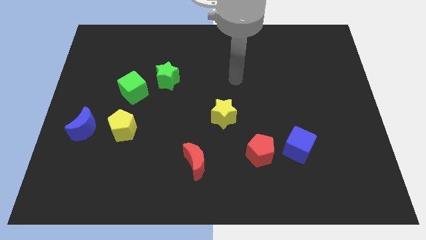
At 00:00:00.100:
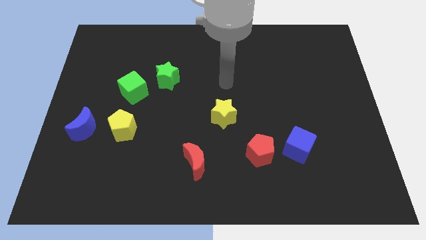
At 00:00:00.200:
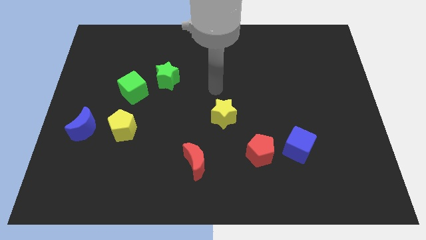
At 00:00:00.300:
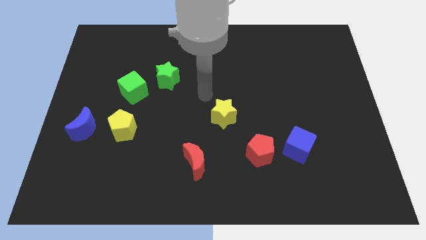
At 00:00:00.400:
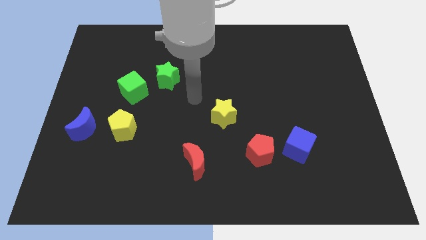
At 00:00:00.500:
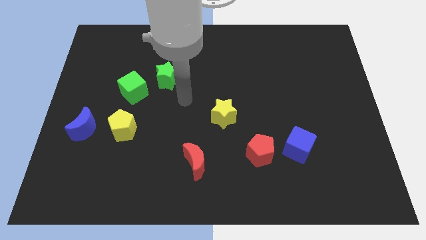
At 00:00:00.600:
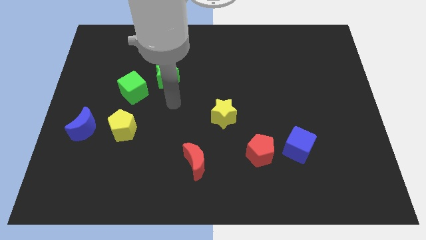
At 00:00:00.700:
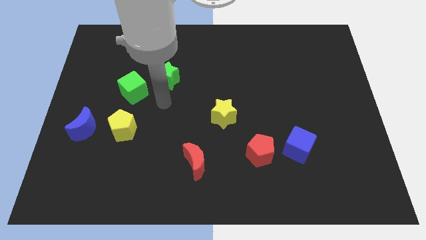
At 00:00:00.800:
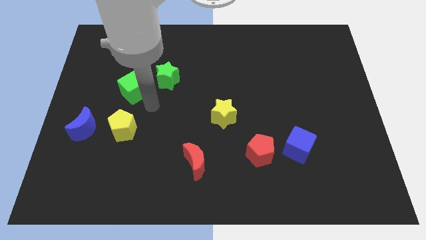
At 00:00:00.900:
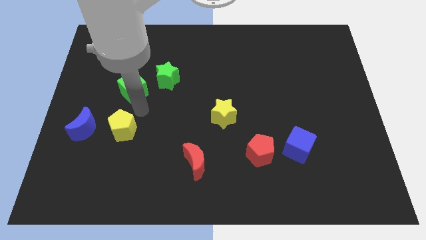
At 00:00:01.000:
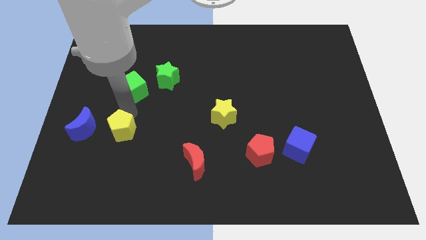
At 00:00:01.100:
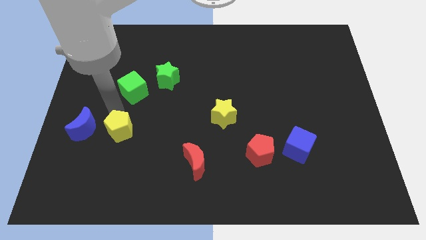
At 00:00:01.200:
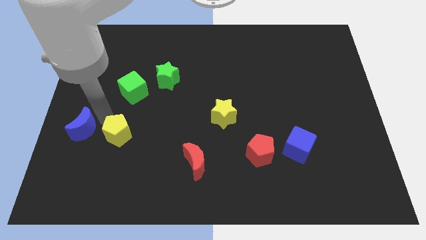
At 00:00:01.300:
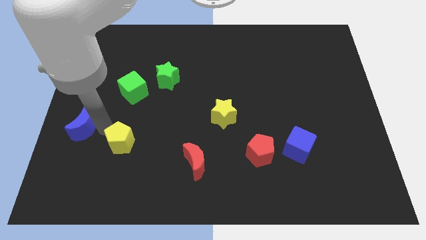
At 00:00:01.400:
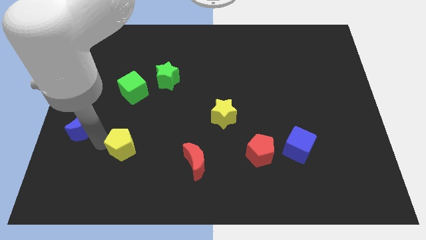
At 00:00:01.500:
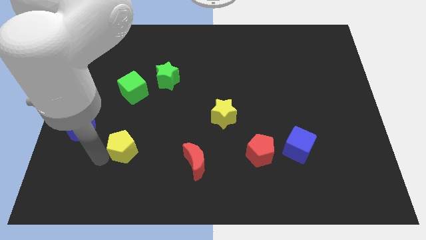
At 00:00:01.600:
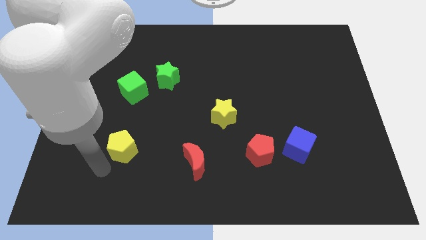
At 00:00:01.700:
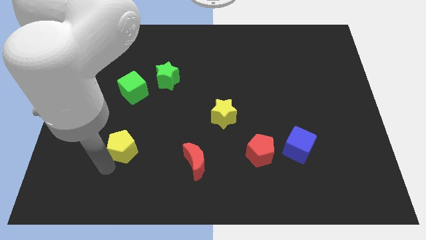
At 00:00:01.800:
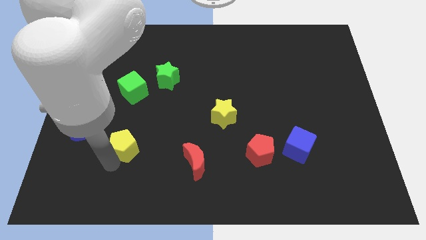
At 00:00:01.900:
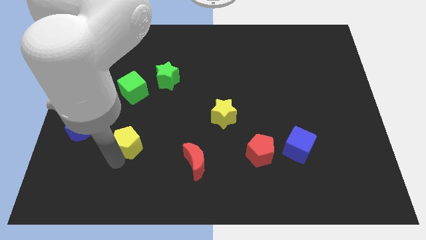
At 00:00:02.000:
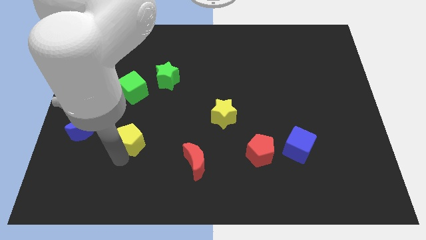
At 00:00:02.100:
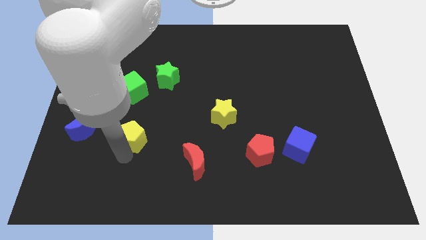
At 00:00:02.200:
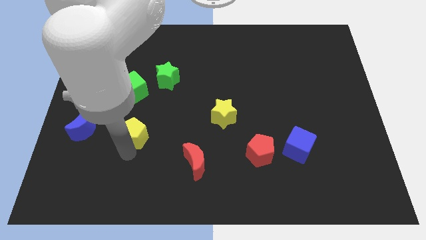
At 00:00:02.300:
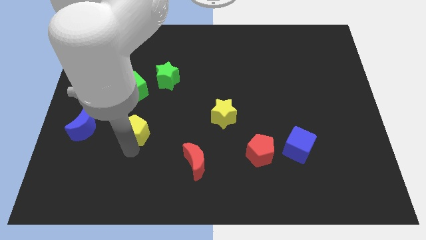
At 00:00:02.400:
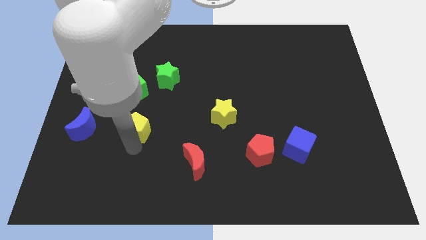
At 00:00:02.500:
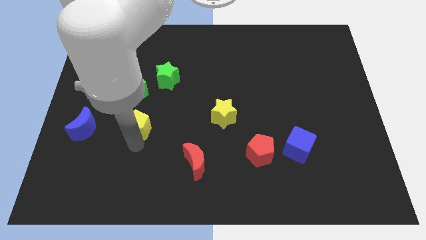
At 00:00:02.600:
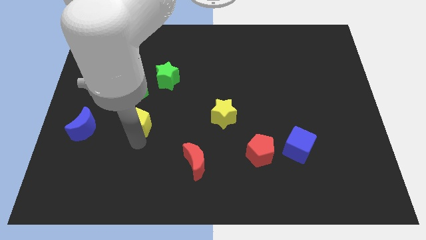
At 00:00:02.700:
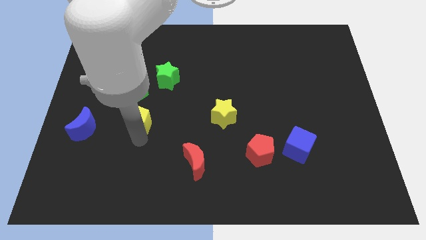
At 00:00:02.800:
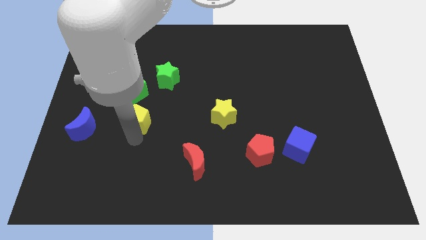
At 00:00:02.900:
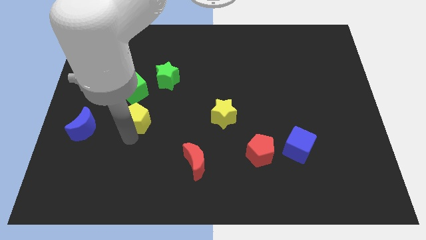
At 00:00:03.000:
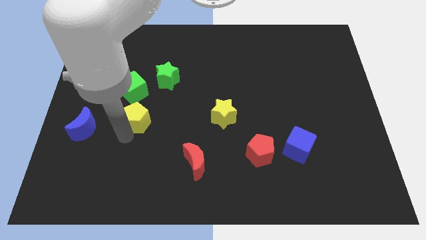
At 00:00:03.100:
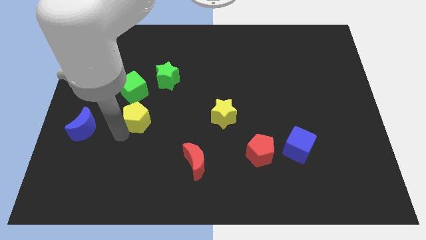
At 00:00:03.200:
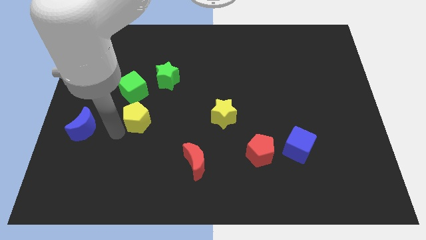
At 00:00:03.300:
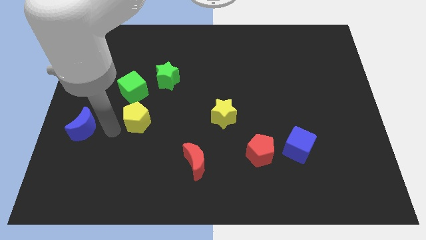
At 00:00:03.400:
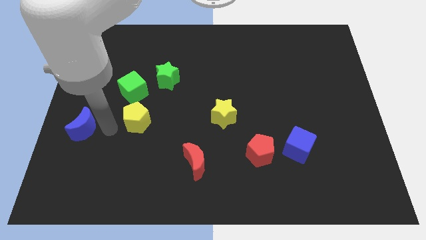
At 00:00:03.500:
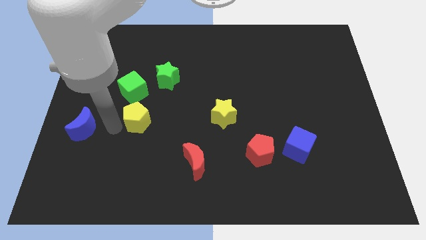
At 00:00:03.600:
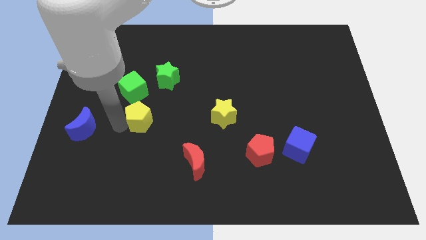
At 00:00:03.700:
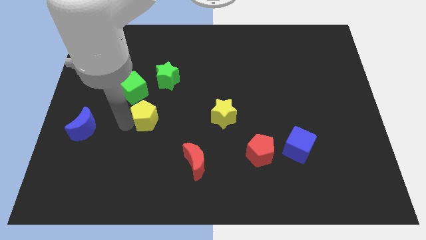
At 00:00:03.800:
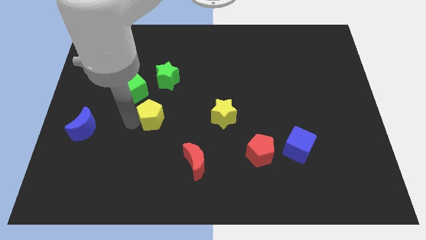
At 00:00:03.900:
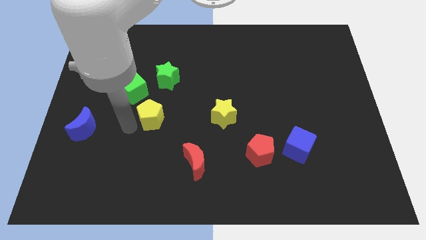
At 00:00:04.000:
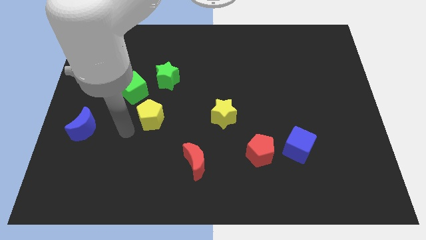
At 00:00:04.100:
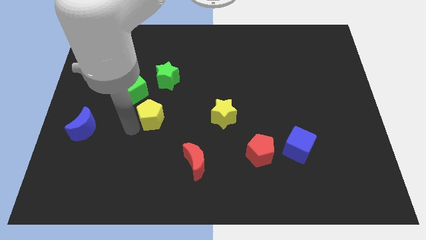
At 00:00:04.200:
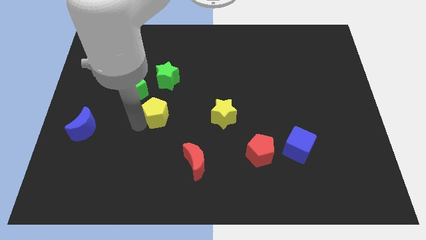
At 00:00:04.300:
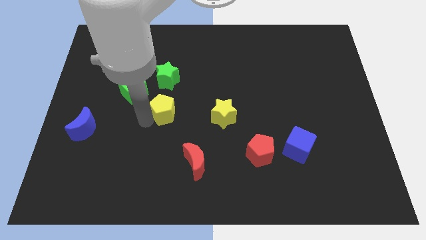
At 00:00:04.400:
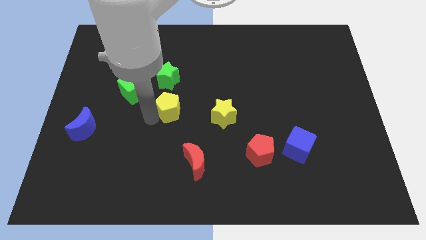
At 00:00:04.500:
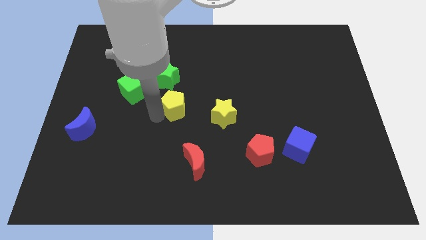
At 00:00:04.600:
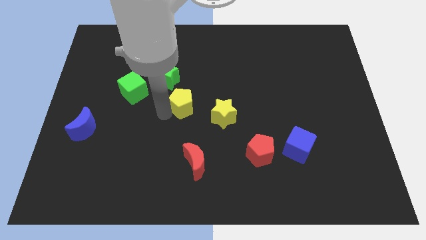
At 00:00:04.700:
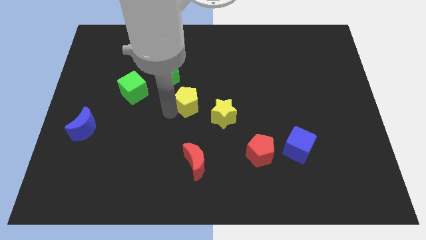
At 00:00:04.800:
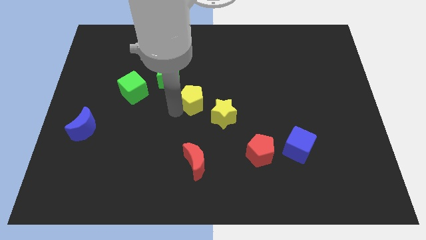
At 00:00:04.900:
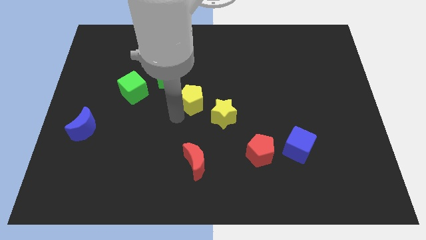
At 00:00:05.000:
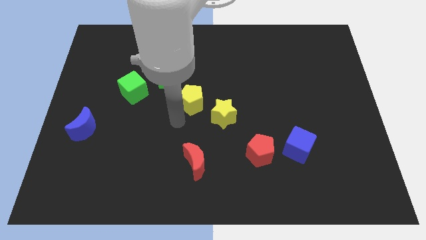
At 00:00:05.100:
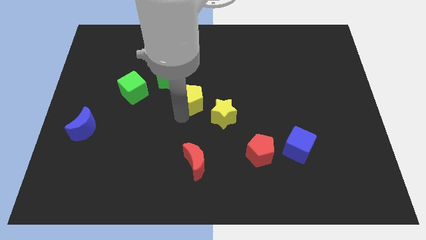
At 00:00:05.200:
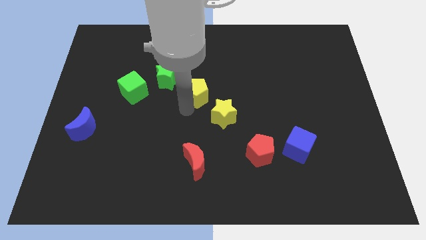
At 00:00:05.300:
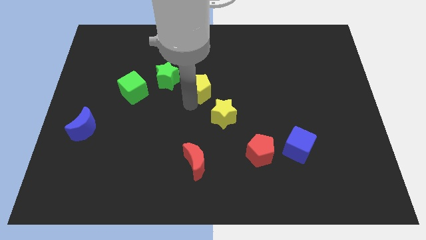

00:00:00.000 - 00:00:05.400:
push the yellow pentagon just right of the green star
